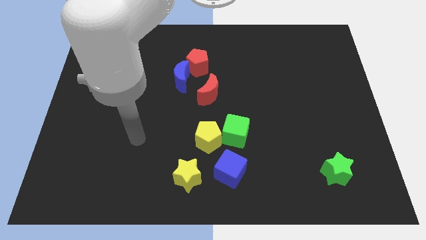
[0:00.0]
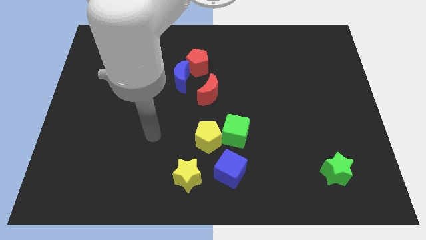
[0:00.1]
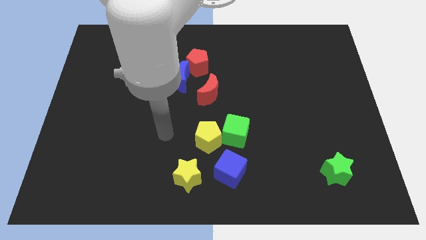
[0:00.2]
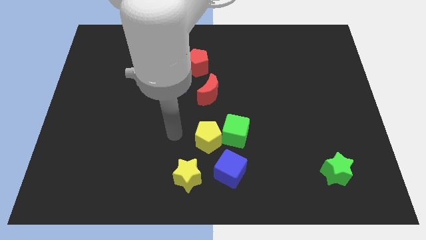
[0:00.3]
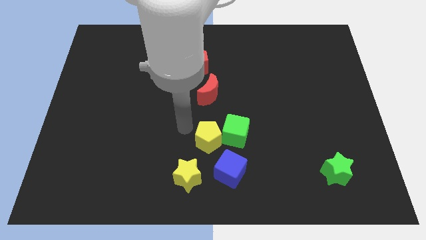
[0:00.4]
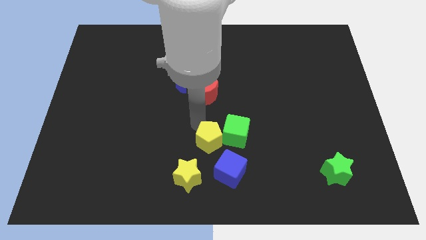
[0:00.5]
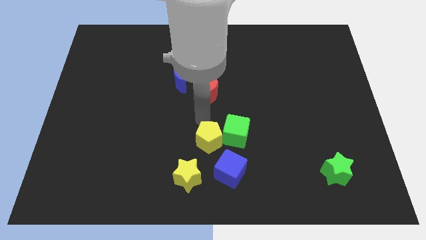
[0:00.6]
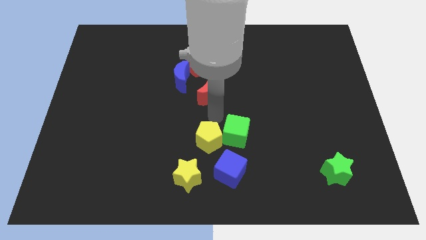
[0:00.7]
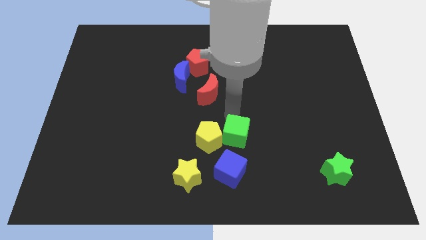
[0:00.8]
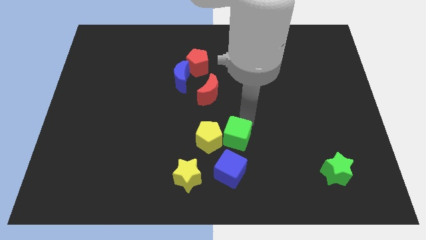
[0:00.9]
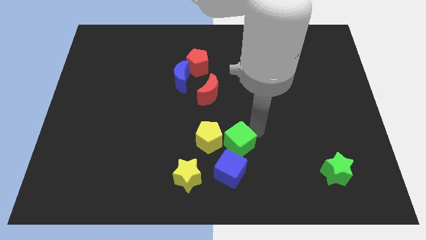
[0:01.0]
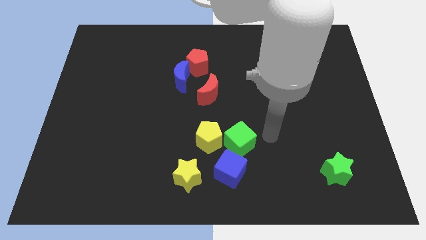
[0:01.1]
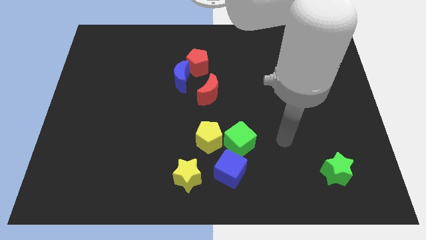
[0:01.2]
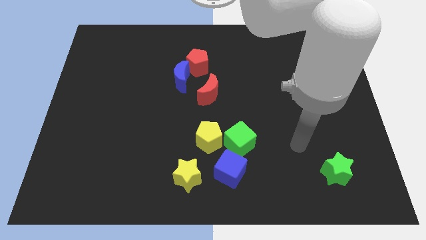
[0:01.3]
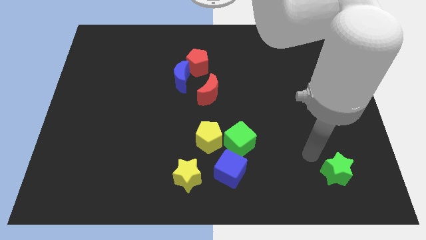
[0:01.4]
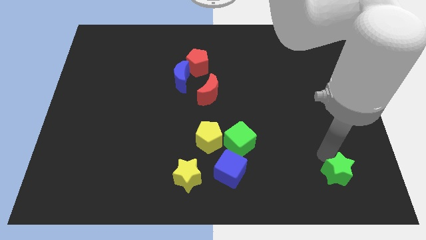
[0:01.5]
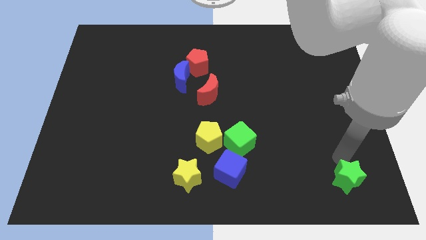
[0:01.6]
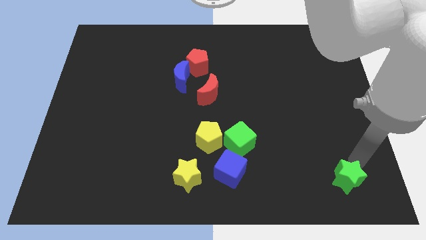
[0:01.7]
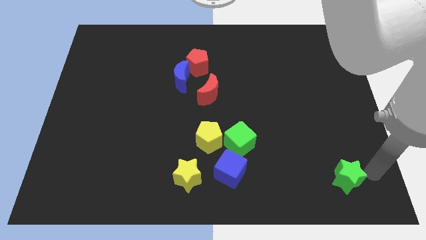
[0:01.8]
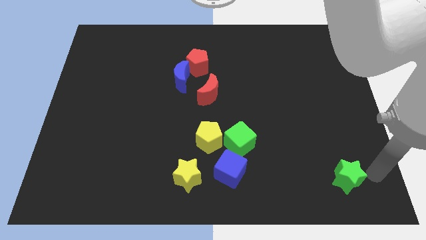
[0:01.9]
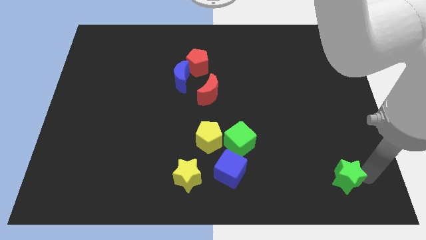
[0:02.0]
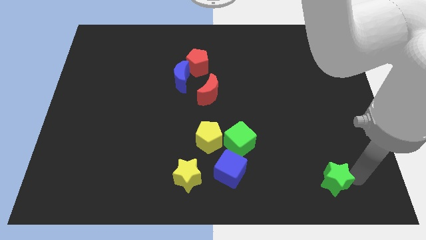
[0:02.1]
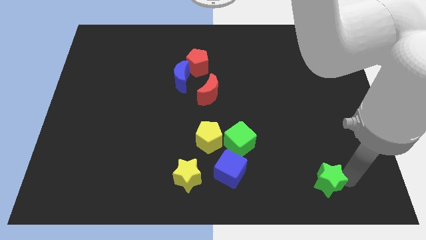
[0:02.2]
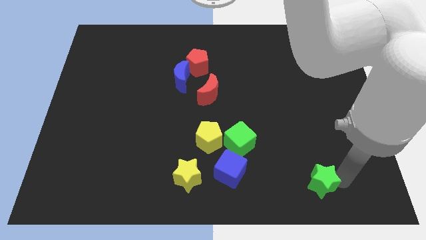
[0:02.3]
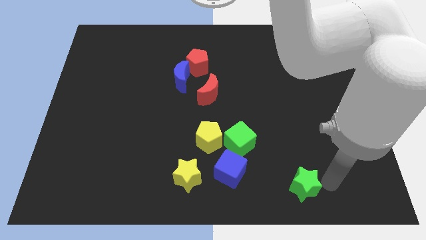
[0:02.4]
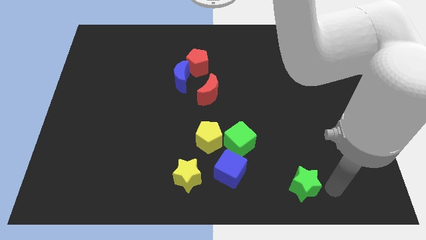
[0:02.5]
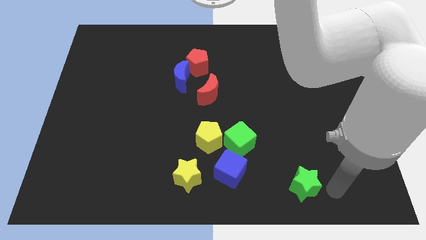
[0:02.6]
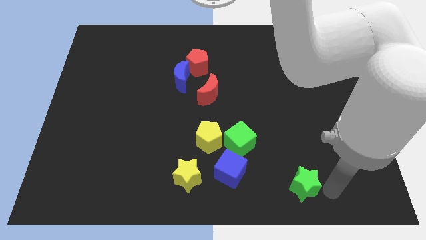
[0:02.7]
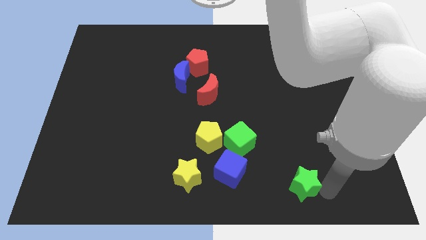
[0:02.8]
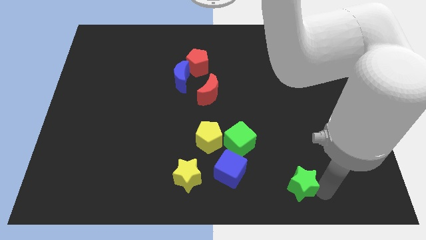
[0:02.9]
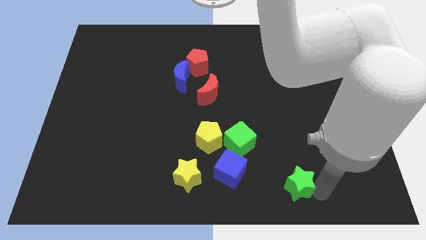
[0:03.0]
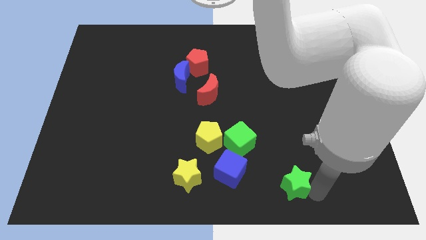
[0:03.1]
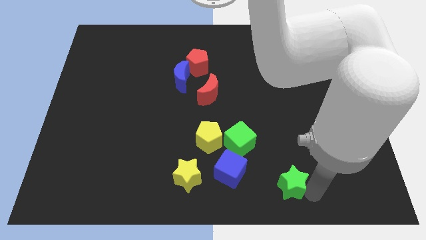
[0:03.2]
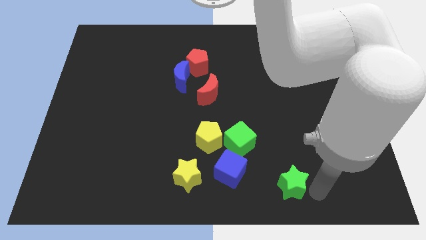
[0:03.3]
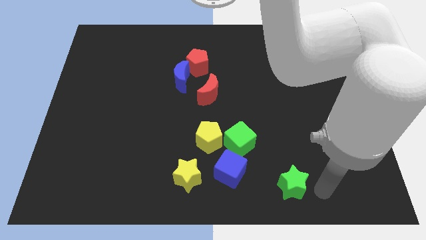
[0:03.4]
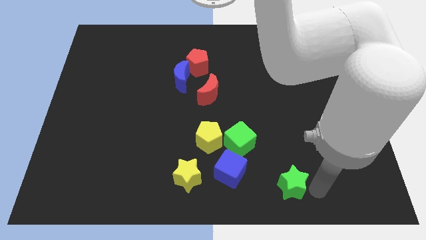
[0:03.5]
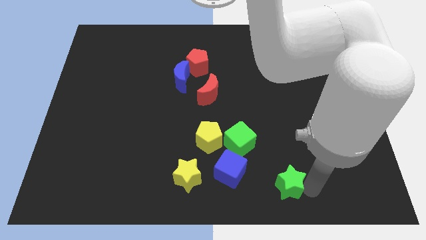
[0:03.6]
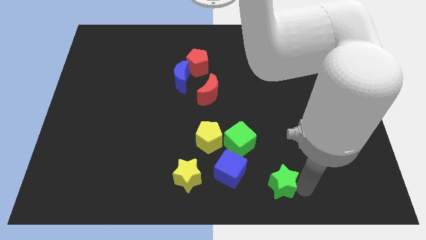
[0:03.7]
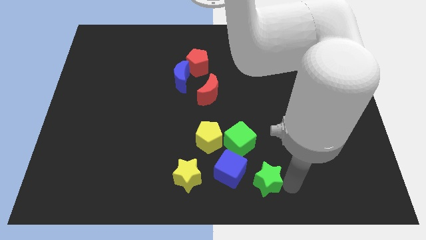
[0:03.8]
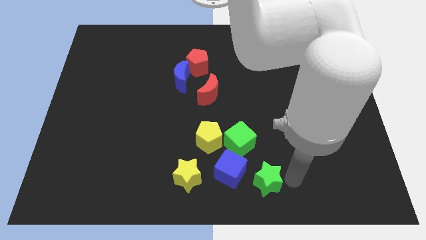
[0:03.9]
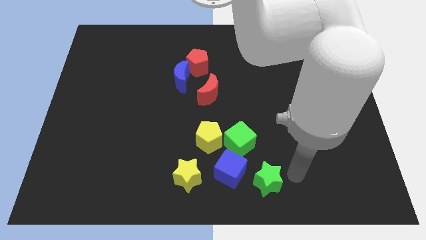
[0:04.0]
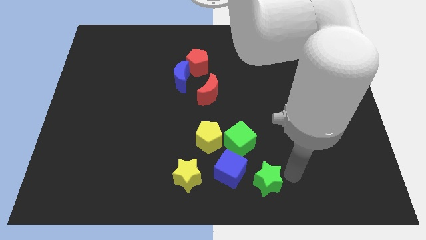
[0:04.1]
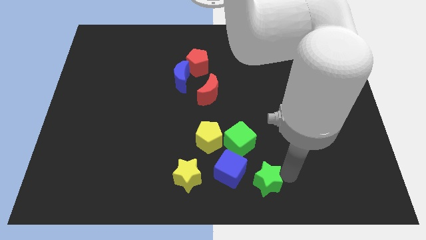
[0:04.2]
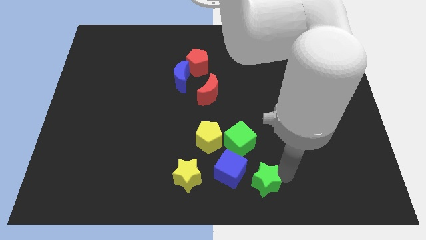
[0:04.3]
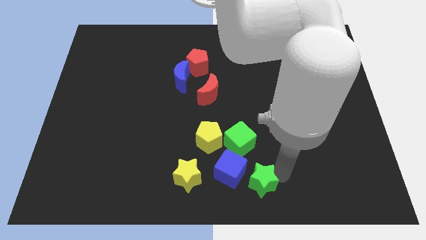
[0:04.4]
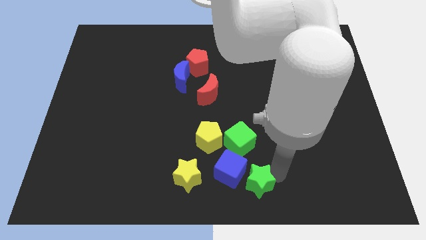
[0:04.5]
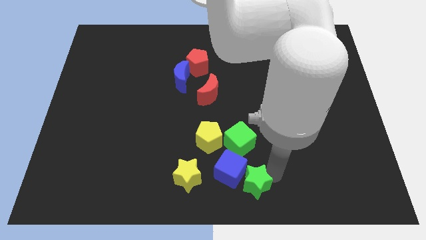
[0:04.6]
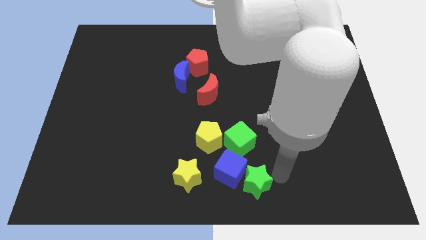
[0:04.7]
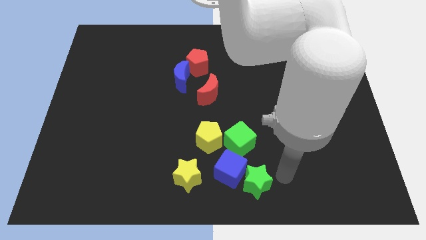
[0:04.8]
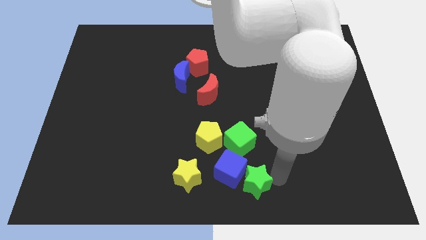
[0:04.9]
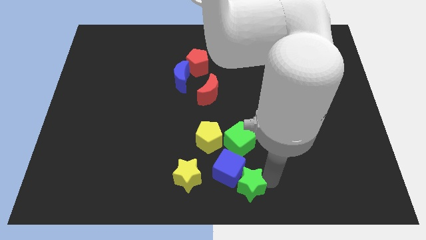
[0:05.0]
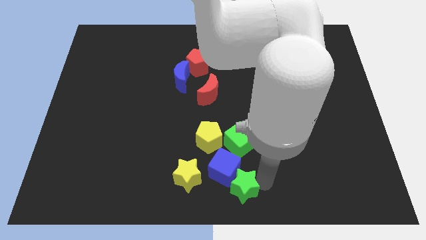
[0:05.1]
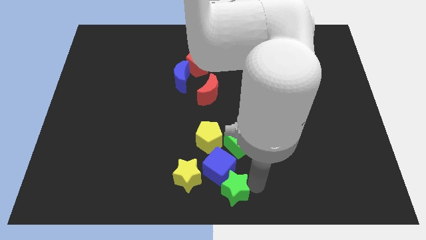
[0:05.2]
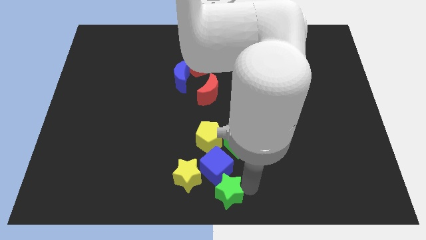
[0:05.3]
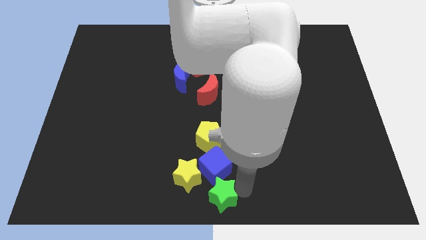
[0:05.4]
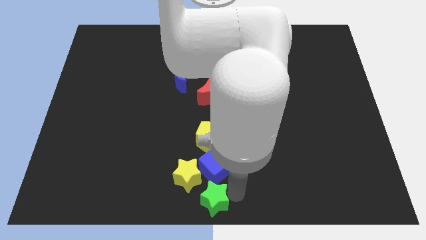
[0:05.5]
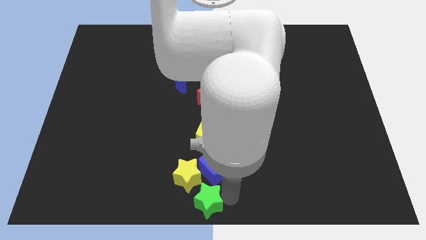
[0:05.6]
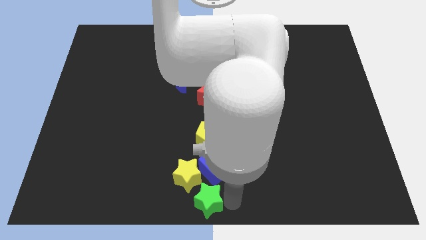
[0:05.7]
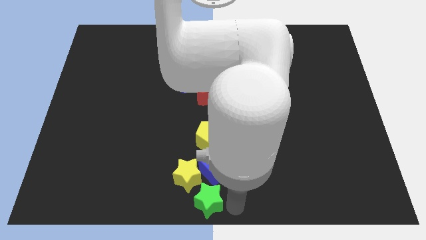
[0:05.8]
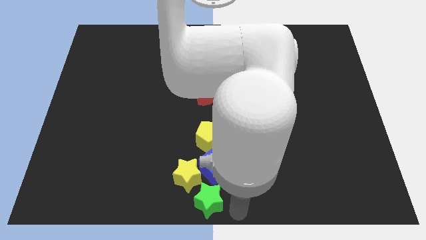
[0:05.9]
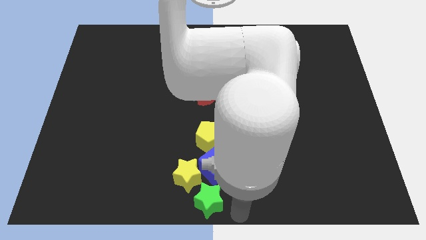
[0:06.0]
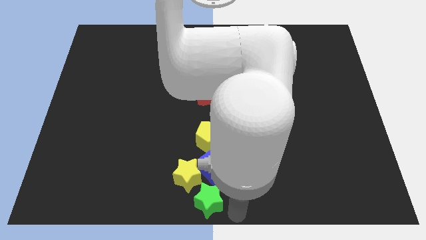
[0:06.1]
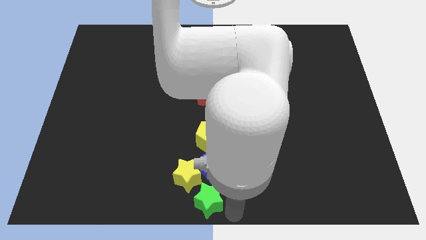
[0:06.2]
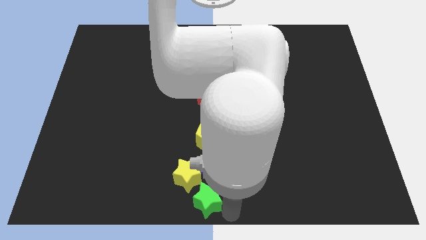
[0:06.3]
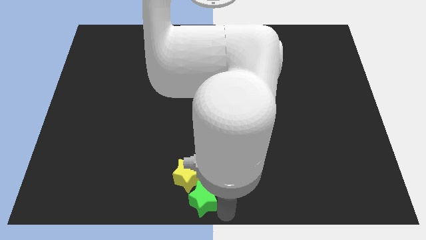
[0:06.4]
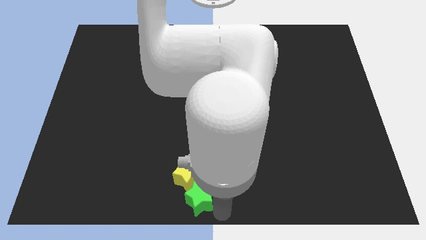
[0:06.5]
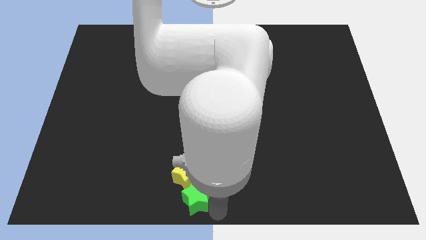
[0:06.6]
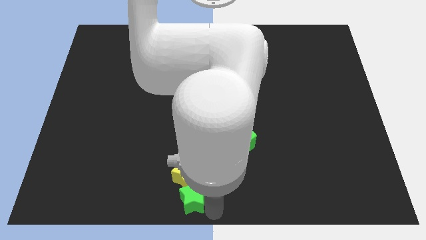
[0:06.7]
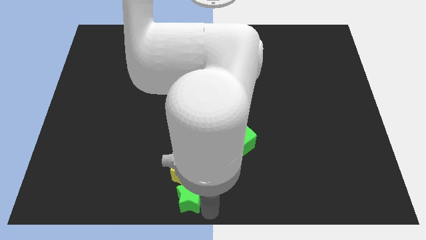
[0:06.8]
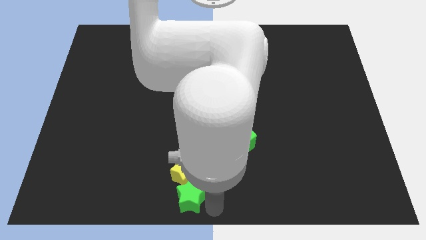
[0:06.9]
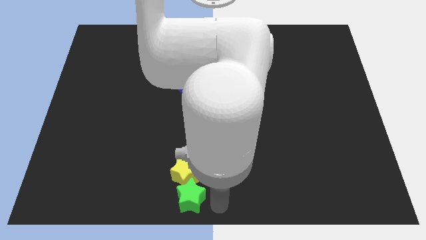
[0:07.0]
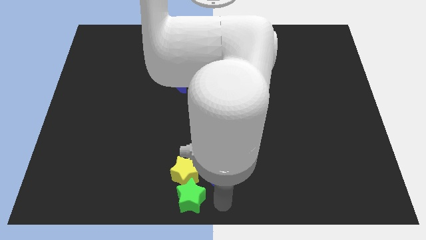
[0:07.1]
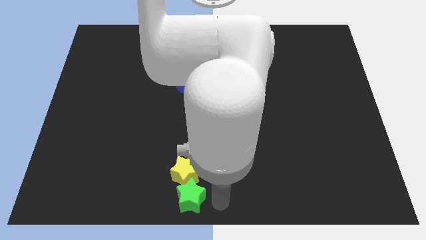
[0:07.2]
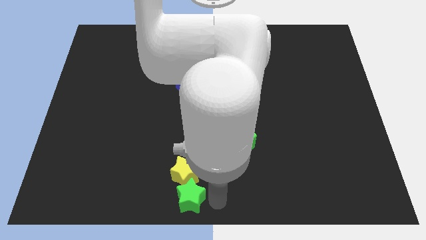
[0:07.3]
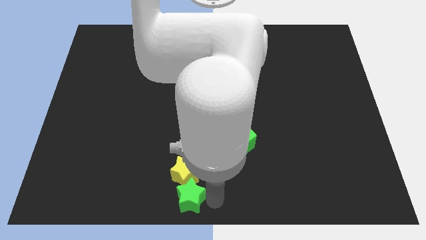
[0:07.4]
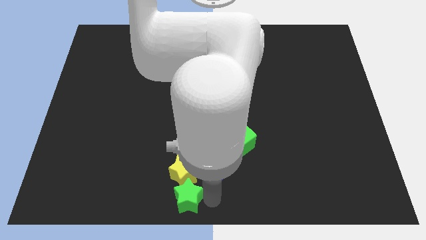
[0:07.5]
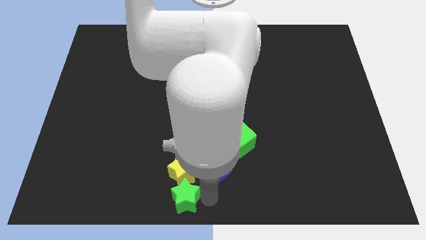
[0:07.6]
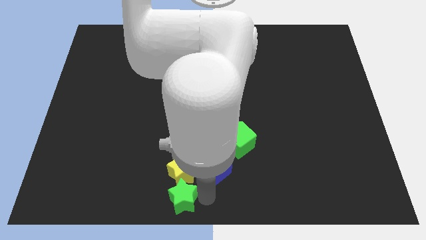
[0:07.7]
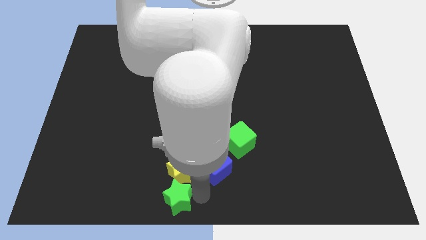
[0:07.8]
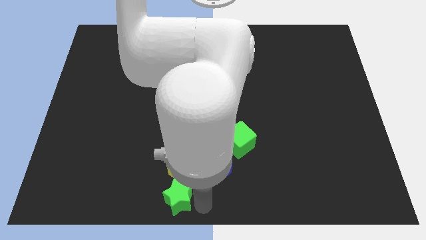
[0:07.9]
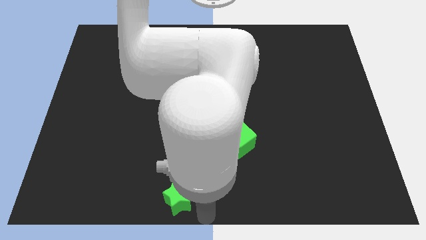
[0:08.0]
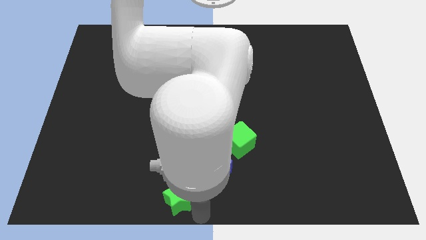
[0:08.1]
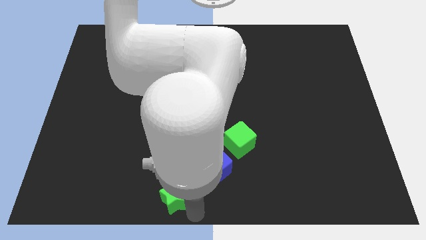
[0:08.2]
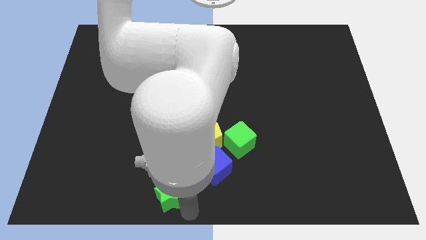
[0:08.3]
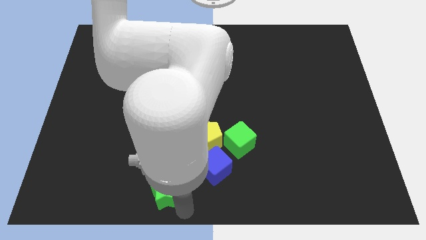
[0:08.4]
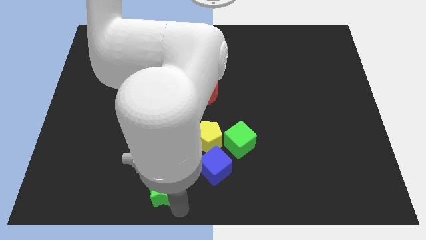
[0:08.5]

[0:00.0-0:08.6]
slide the green star to the left of the yellow star

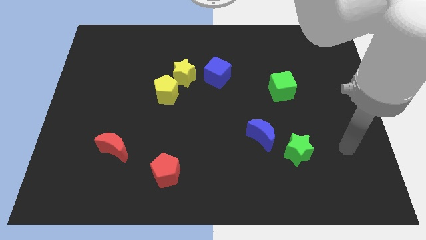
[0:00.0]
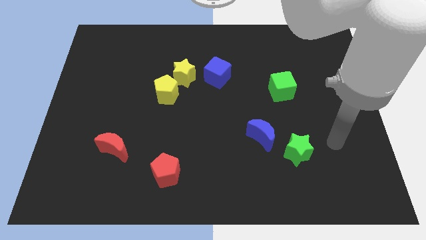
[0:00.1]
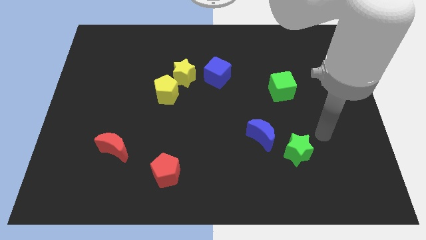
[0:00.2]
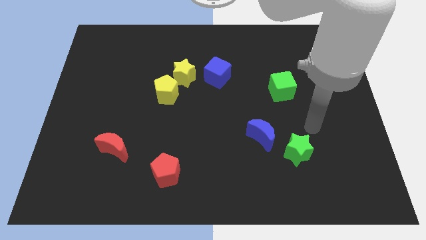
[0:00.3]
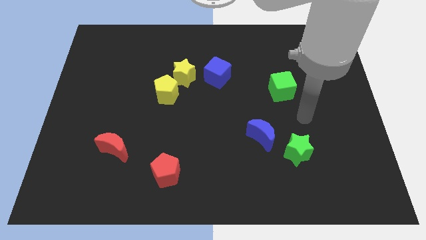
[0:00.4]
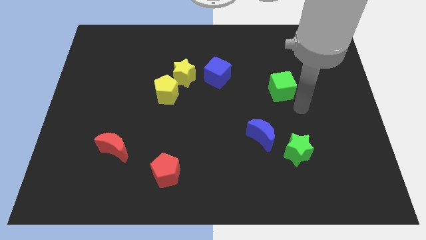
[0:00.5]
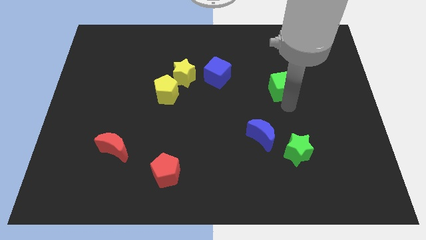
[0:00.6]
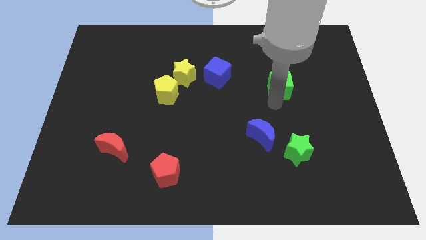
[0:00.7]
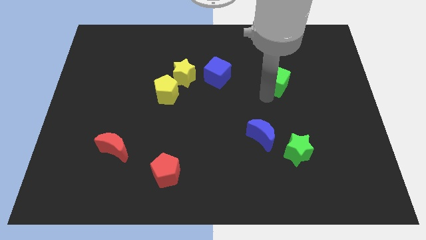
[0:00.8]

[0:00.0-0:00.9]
slide the blue cube to the left side of the green cube
